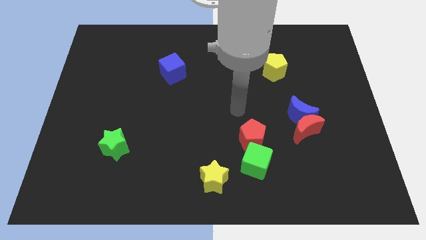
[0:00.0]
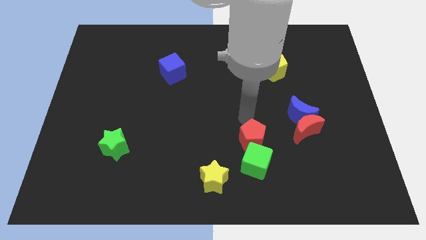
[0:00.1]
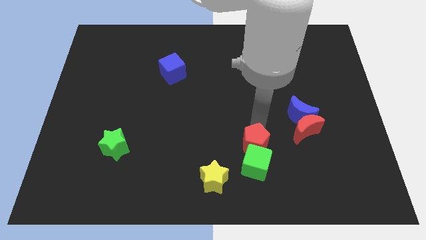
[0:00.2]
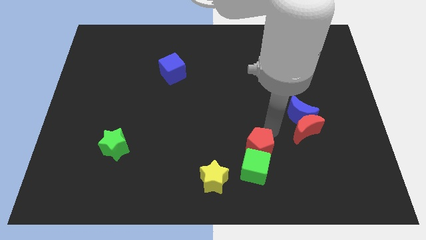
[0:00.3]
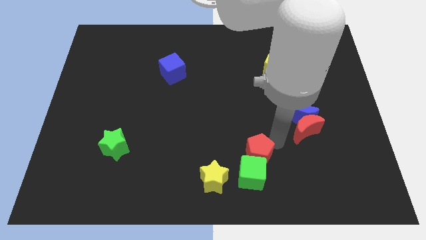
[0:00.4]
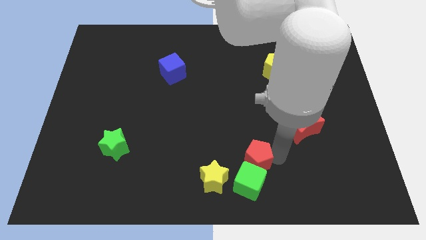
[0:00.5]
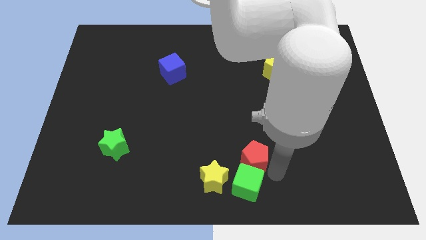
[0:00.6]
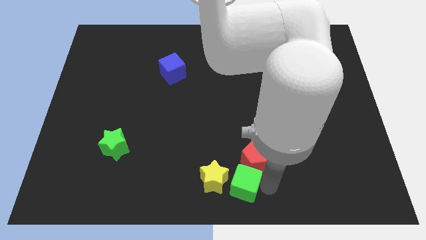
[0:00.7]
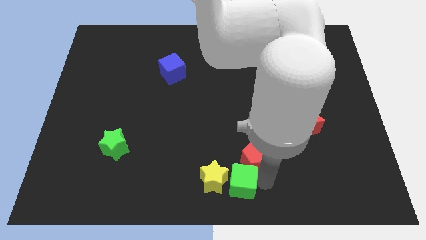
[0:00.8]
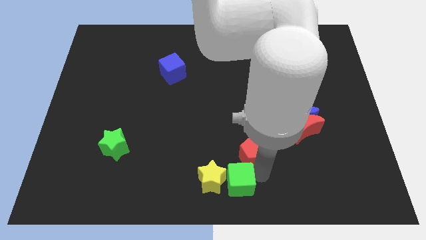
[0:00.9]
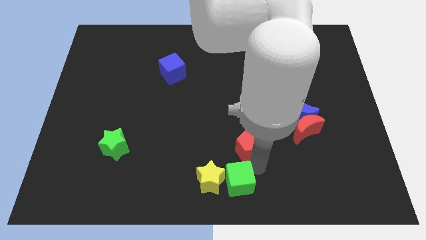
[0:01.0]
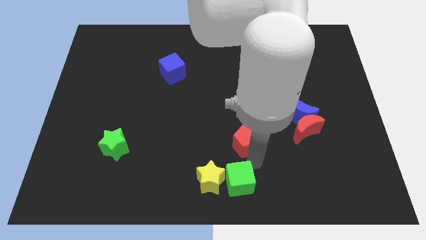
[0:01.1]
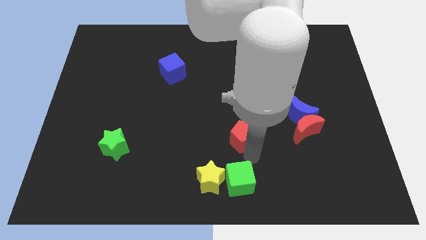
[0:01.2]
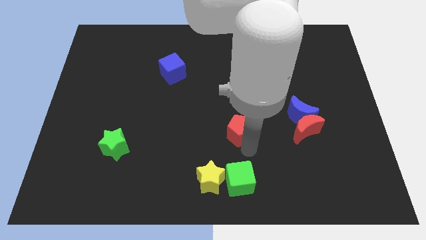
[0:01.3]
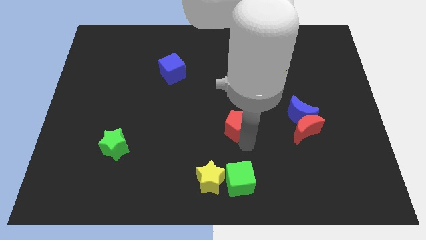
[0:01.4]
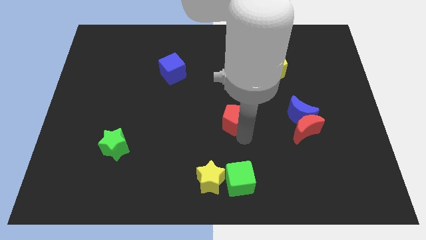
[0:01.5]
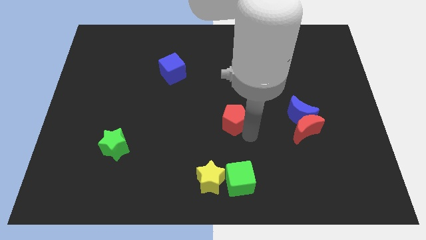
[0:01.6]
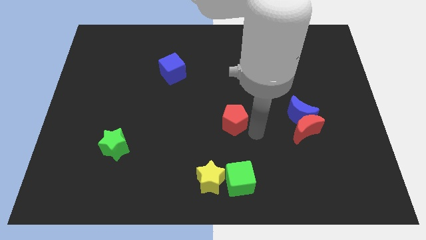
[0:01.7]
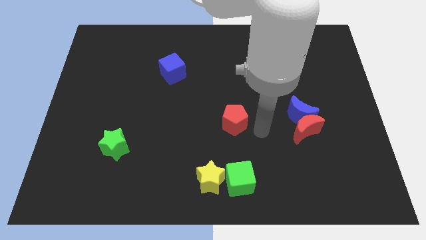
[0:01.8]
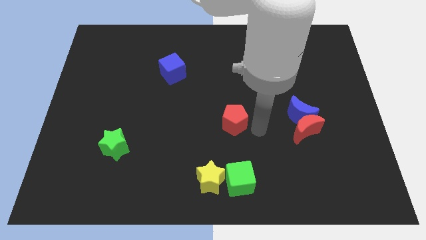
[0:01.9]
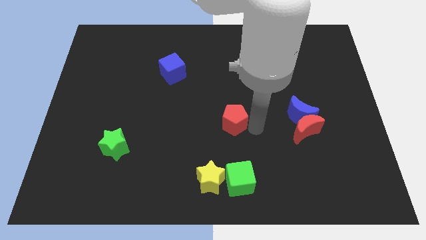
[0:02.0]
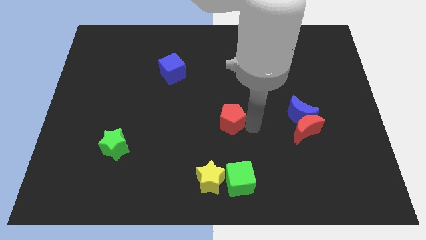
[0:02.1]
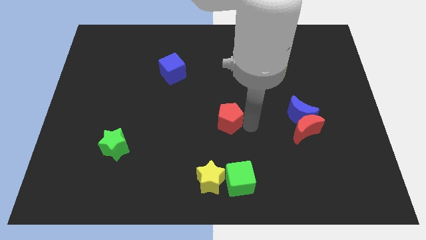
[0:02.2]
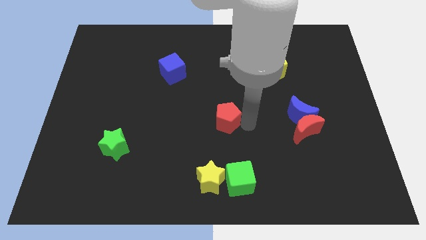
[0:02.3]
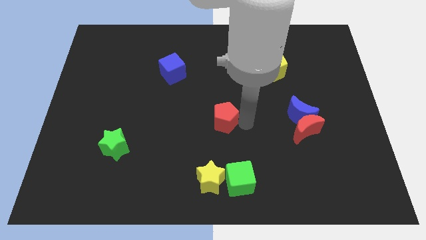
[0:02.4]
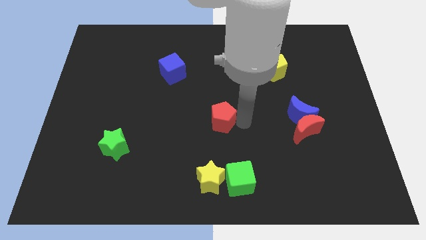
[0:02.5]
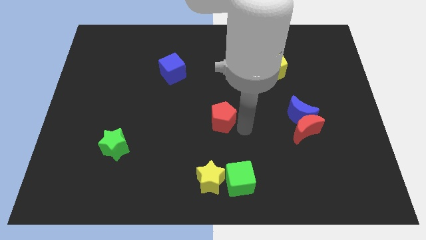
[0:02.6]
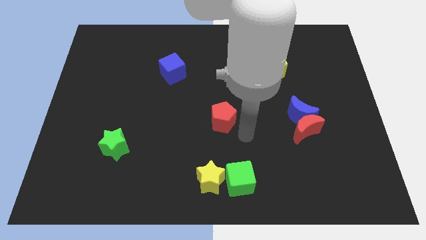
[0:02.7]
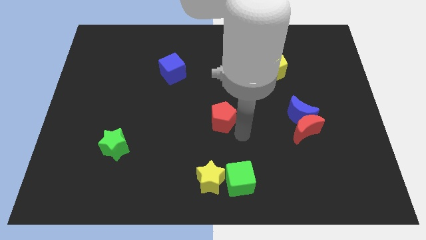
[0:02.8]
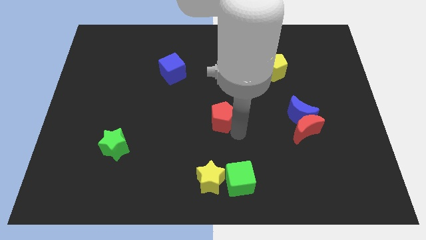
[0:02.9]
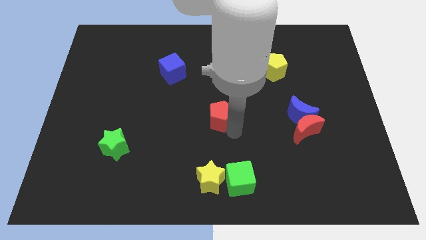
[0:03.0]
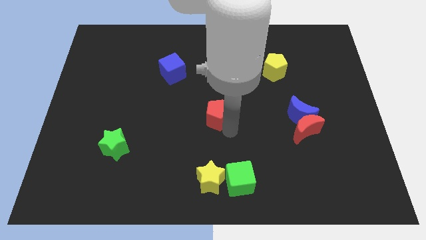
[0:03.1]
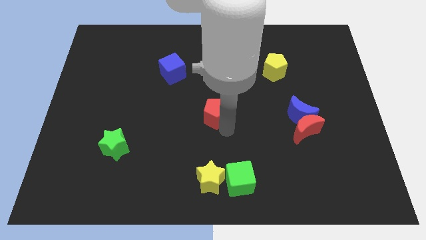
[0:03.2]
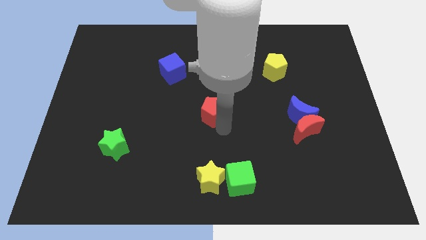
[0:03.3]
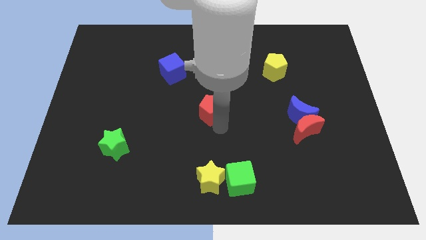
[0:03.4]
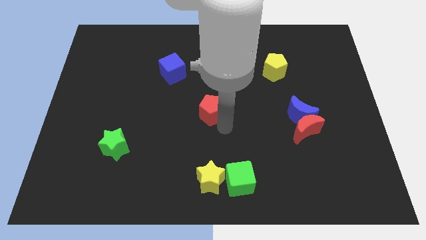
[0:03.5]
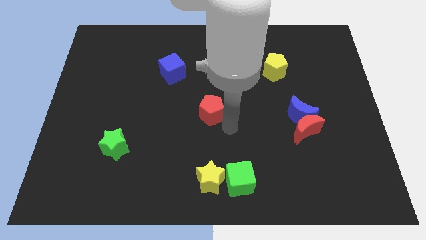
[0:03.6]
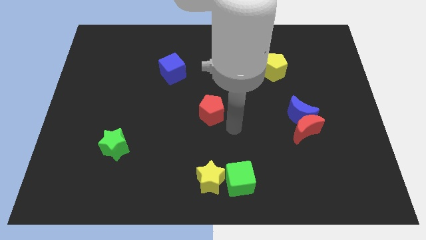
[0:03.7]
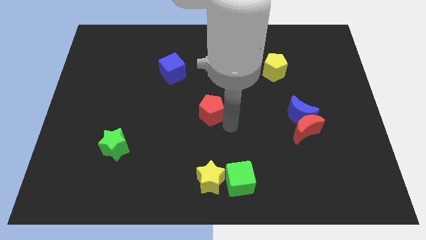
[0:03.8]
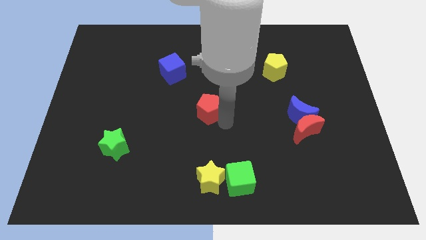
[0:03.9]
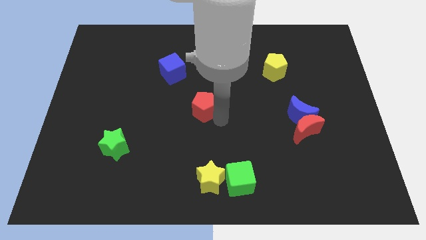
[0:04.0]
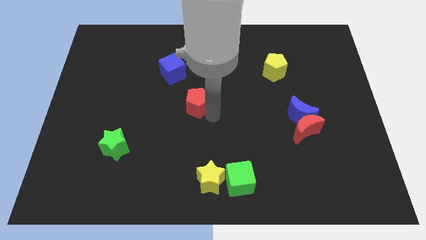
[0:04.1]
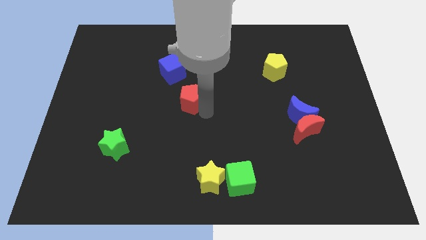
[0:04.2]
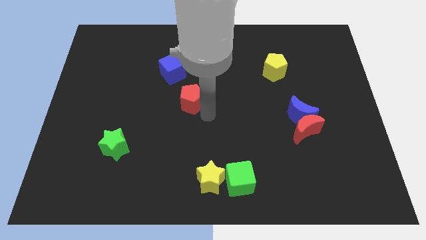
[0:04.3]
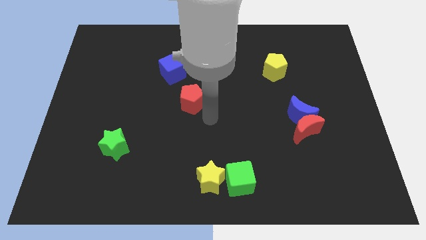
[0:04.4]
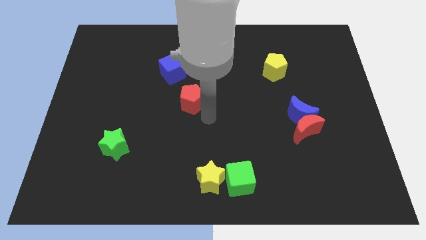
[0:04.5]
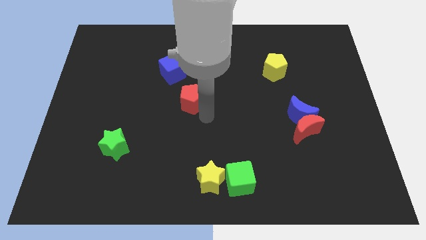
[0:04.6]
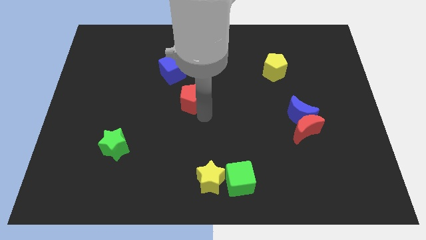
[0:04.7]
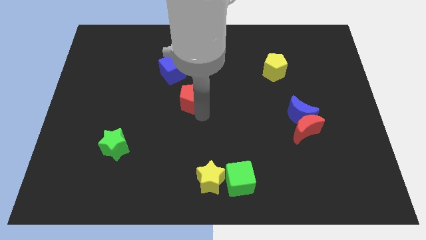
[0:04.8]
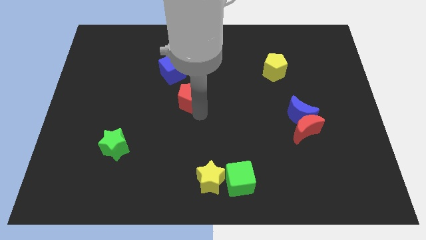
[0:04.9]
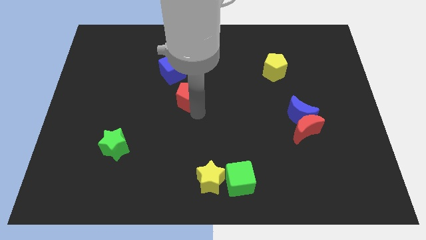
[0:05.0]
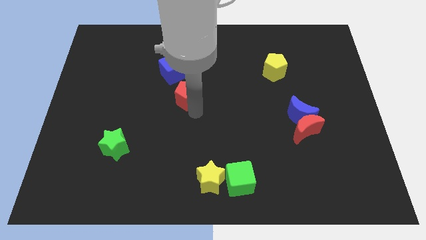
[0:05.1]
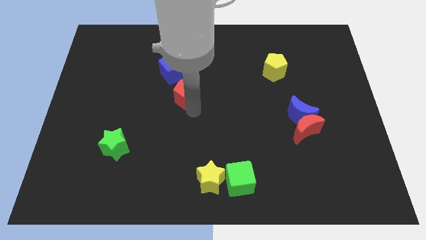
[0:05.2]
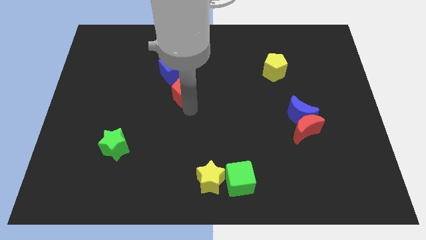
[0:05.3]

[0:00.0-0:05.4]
slide the red pentagon upwards and to the left

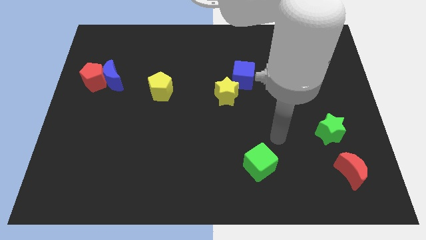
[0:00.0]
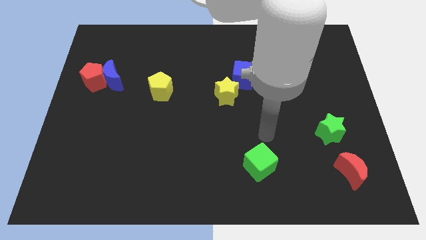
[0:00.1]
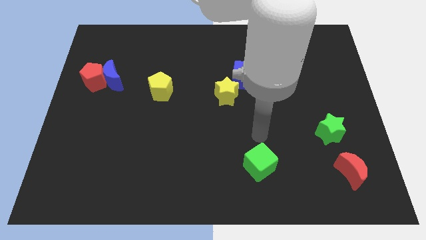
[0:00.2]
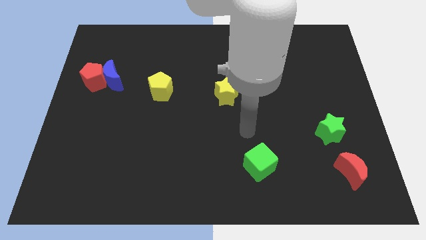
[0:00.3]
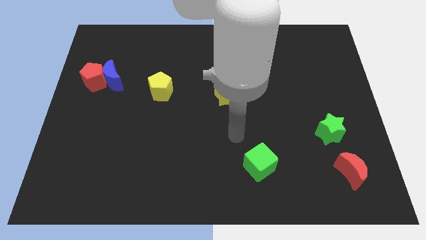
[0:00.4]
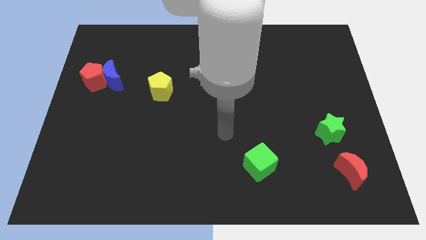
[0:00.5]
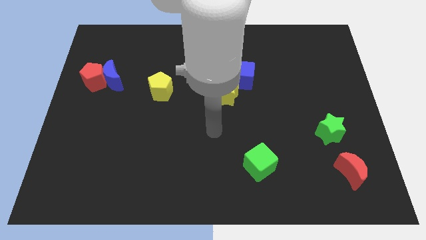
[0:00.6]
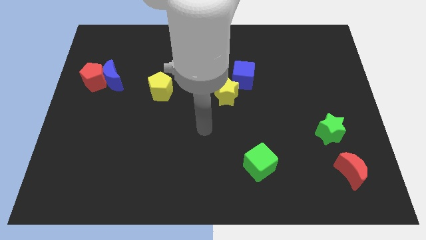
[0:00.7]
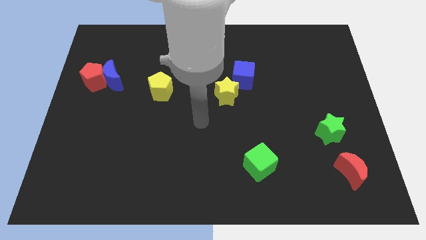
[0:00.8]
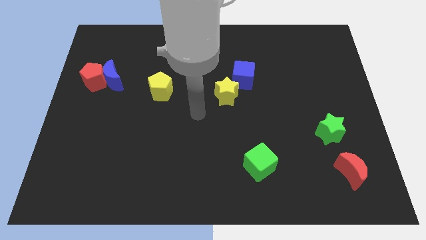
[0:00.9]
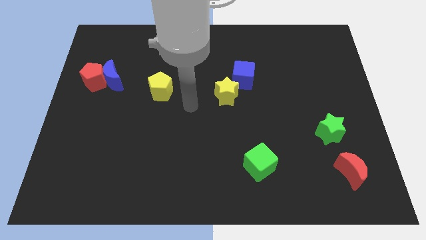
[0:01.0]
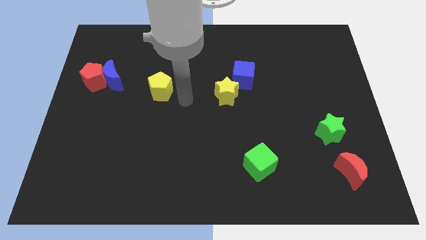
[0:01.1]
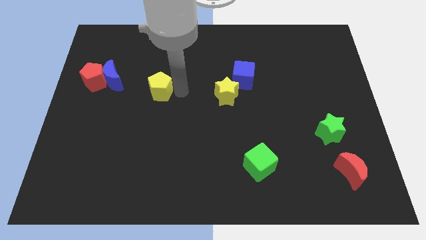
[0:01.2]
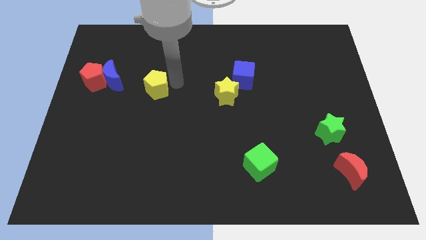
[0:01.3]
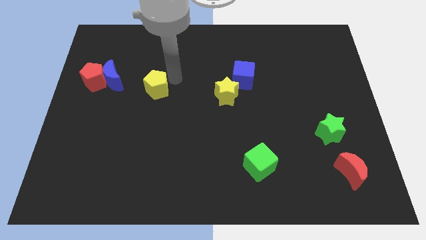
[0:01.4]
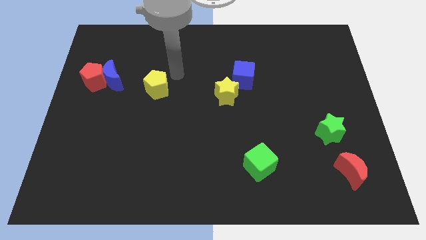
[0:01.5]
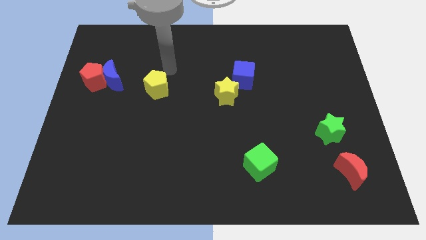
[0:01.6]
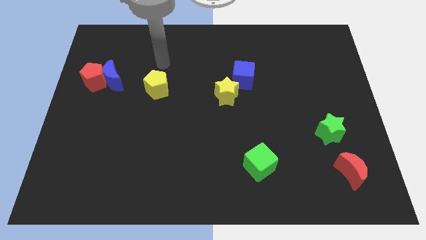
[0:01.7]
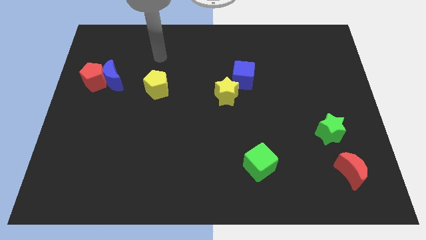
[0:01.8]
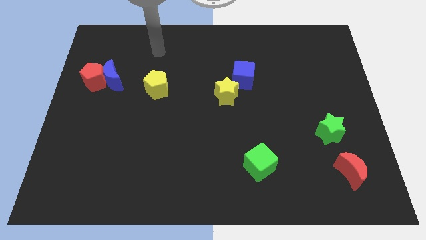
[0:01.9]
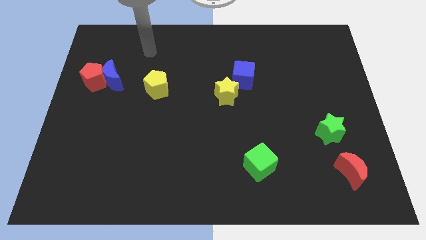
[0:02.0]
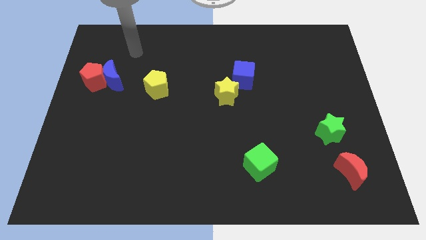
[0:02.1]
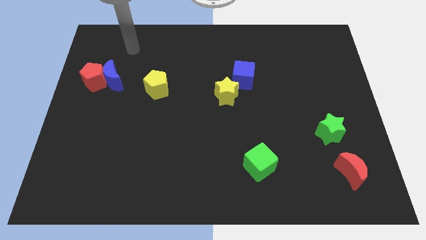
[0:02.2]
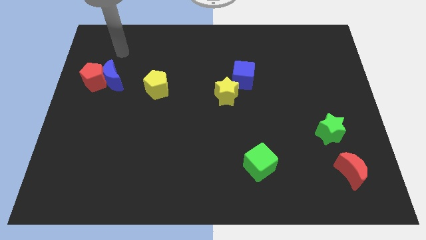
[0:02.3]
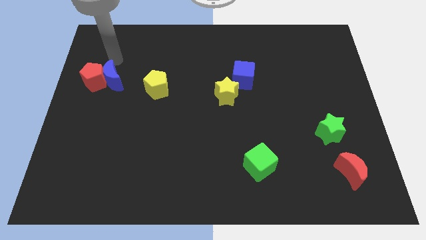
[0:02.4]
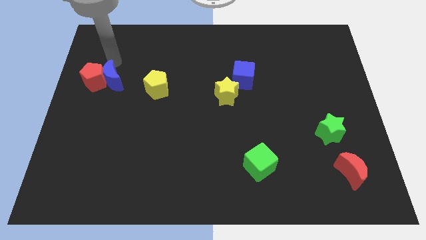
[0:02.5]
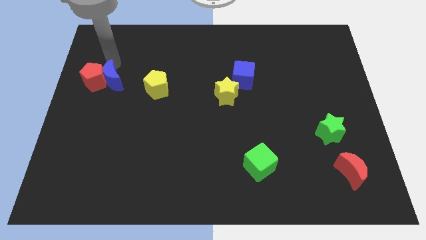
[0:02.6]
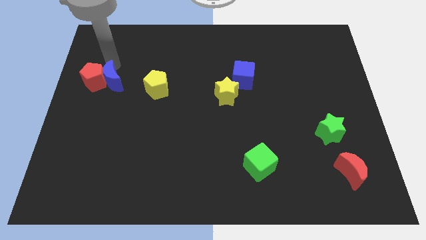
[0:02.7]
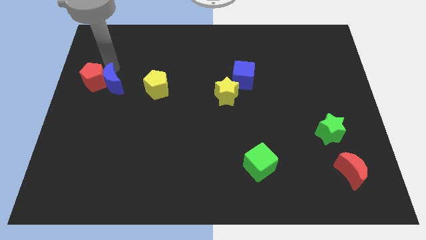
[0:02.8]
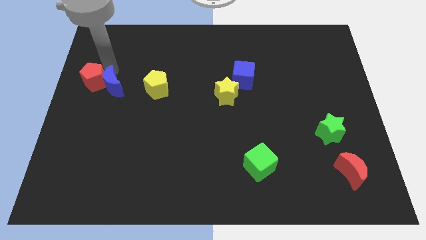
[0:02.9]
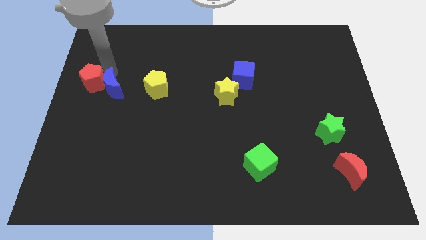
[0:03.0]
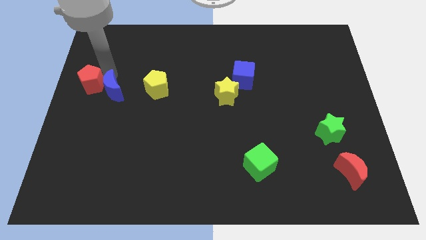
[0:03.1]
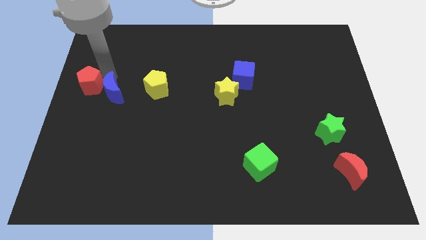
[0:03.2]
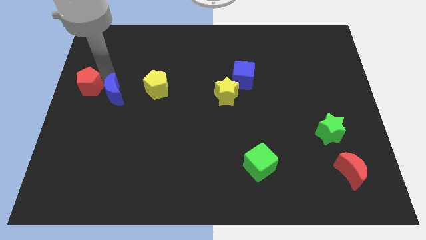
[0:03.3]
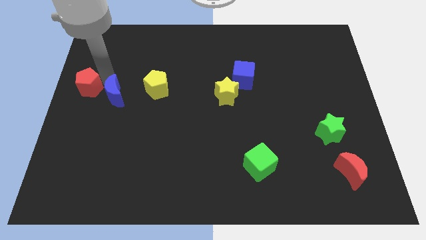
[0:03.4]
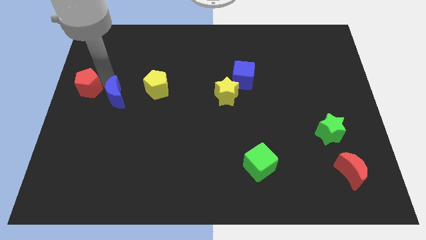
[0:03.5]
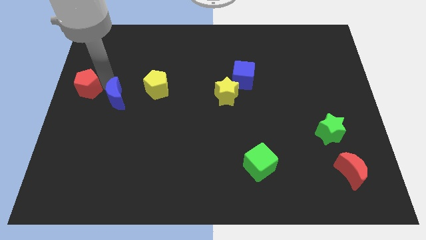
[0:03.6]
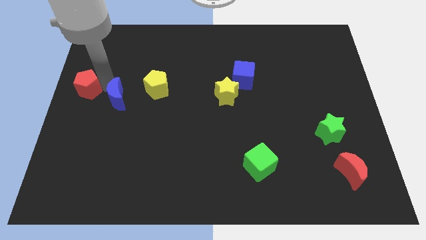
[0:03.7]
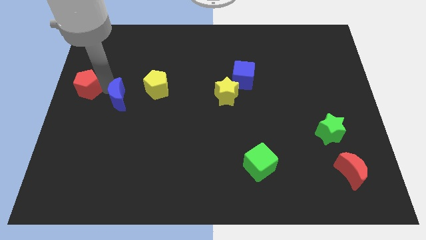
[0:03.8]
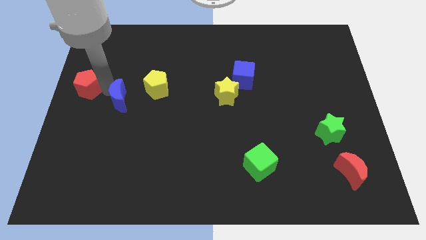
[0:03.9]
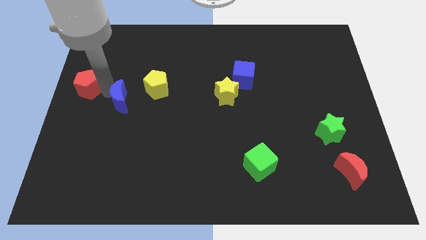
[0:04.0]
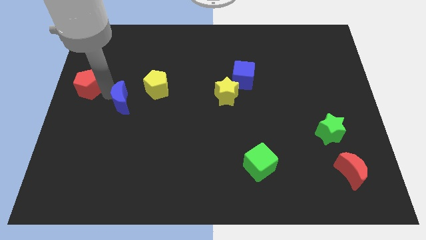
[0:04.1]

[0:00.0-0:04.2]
move the blue moon down slightly
